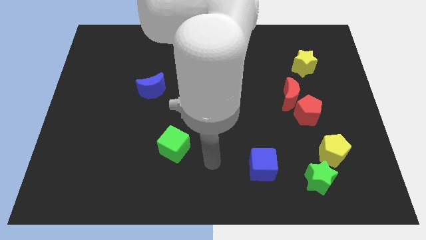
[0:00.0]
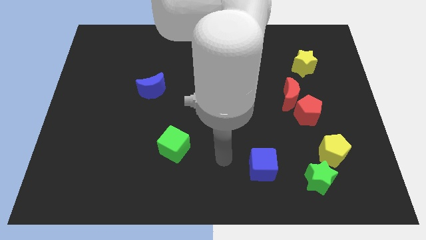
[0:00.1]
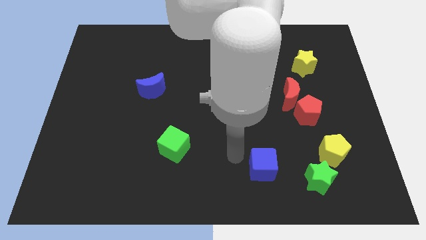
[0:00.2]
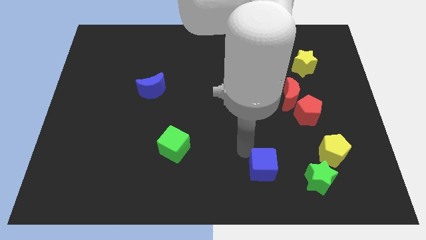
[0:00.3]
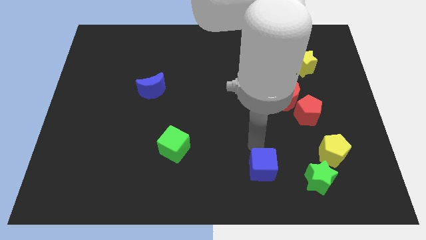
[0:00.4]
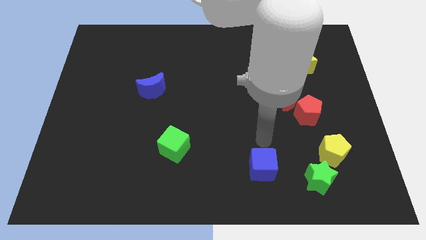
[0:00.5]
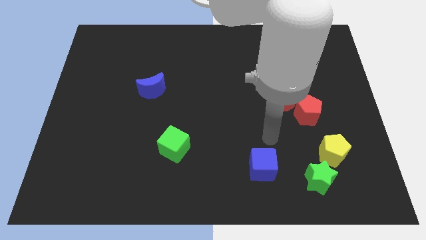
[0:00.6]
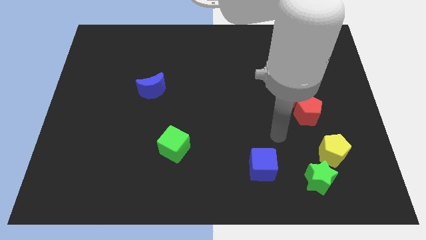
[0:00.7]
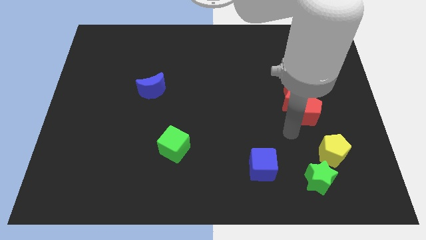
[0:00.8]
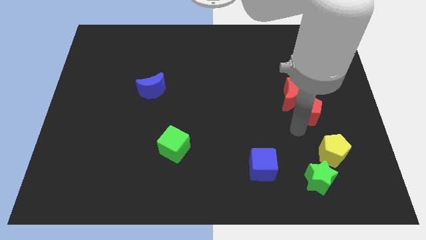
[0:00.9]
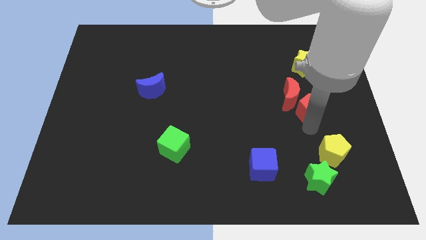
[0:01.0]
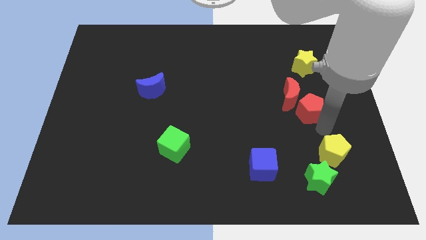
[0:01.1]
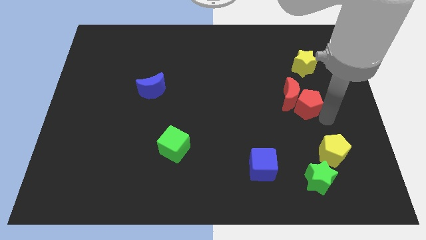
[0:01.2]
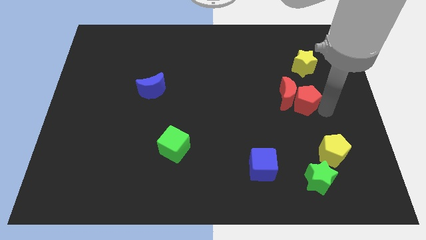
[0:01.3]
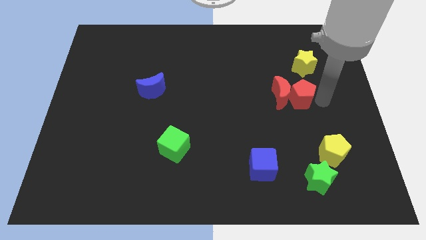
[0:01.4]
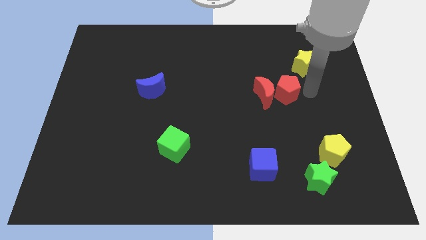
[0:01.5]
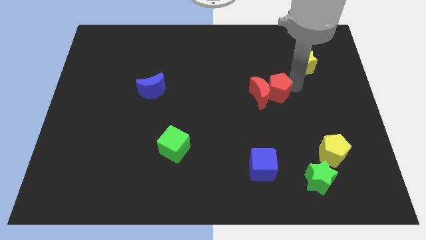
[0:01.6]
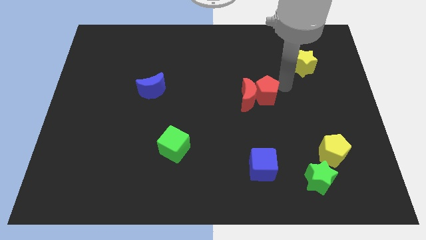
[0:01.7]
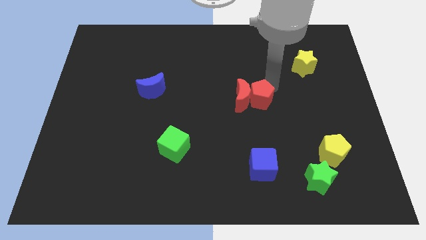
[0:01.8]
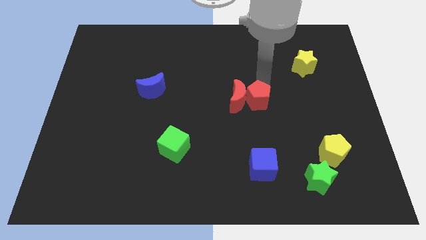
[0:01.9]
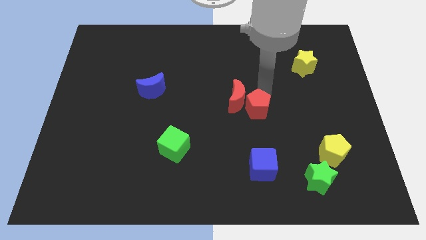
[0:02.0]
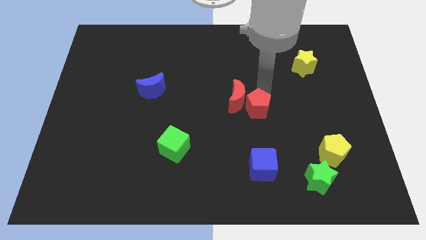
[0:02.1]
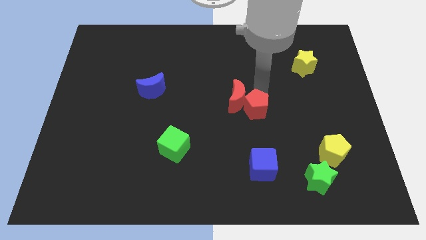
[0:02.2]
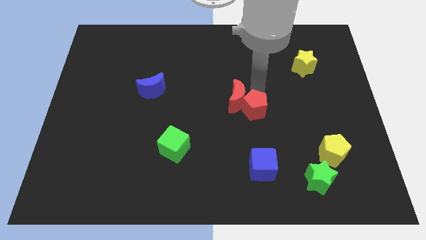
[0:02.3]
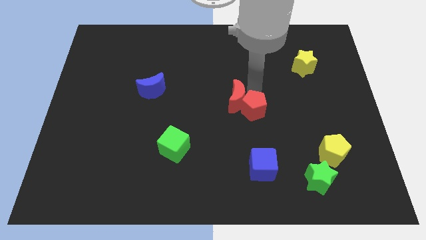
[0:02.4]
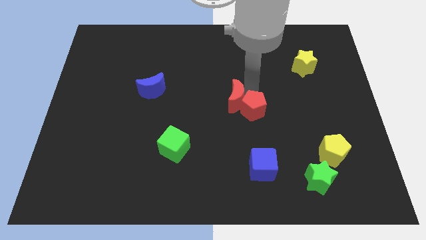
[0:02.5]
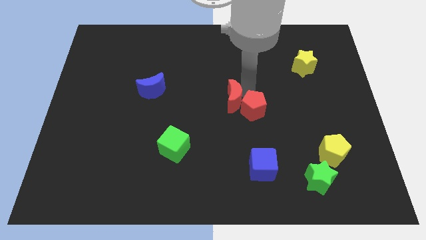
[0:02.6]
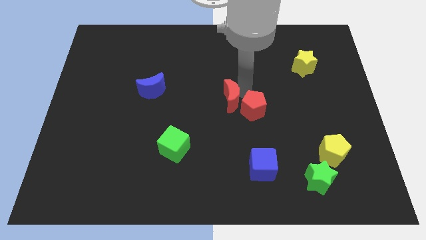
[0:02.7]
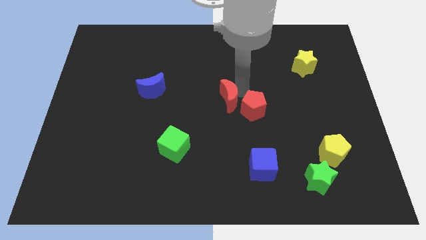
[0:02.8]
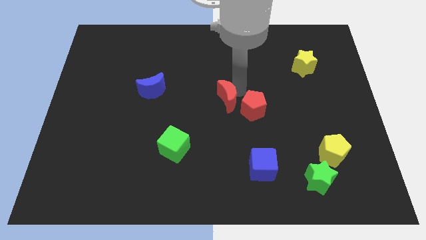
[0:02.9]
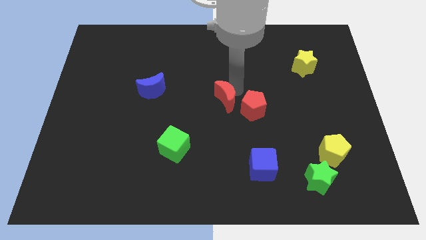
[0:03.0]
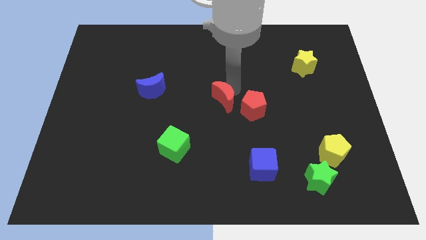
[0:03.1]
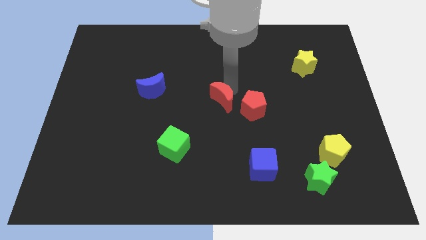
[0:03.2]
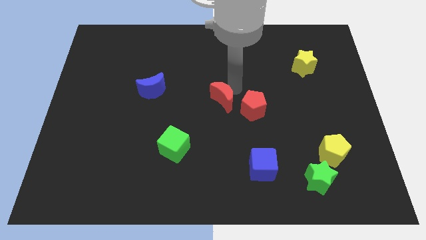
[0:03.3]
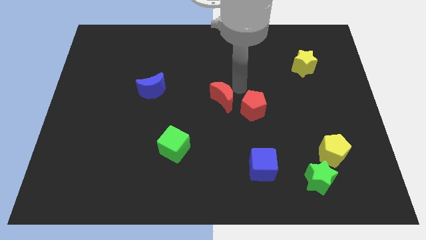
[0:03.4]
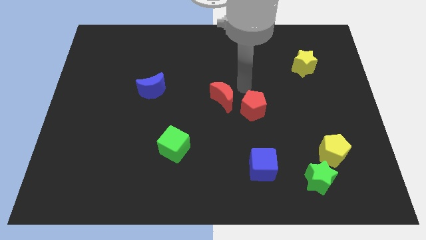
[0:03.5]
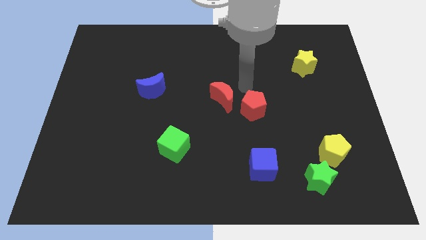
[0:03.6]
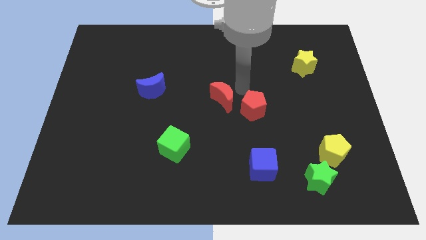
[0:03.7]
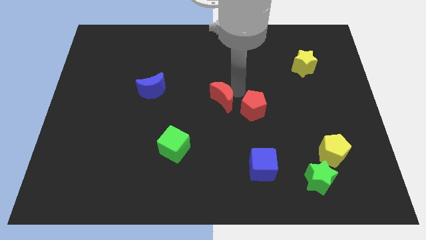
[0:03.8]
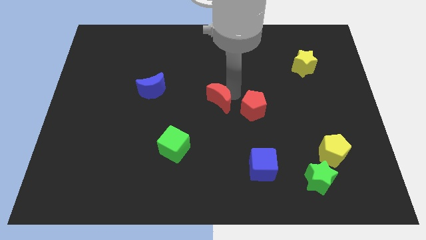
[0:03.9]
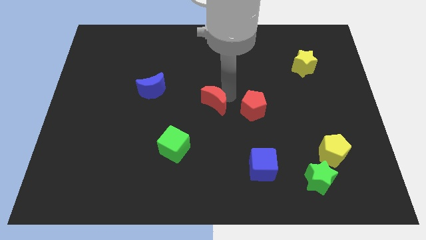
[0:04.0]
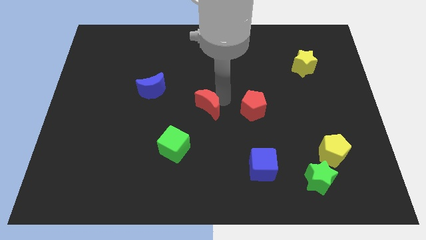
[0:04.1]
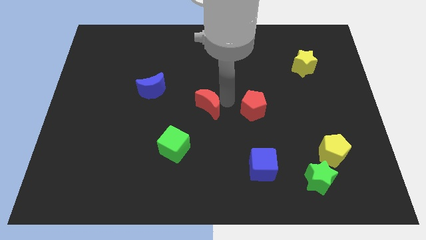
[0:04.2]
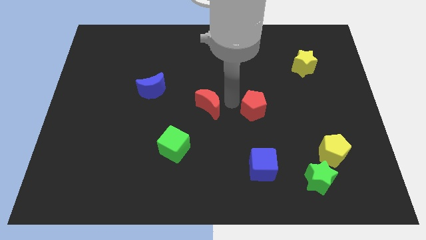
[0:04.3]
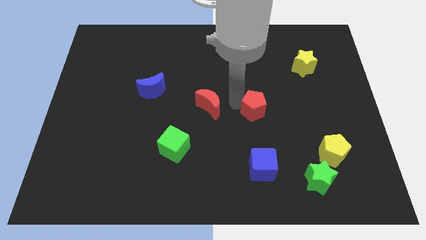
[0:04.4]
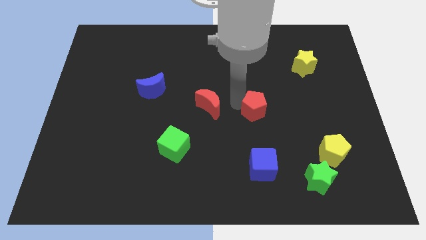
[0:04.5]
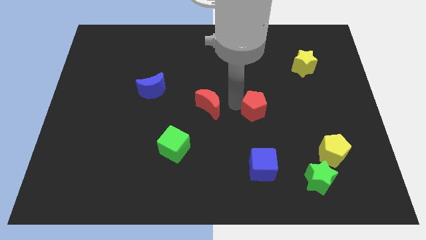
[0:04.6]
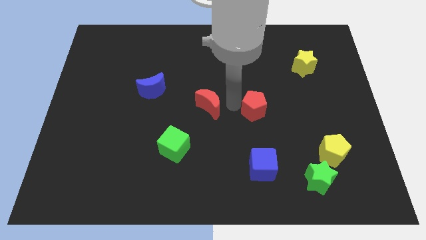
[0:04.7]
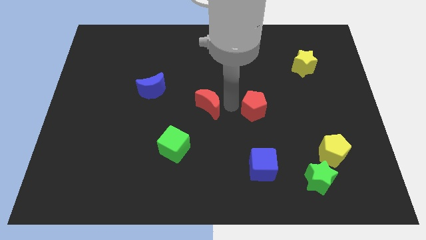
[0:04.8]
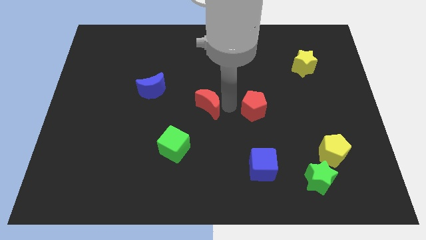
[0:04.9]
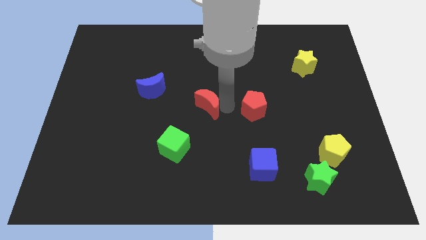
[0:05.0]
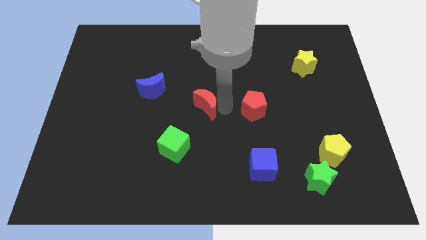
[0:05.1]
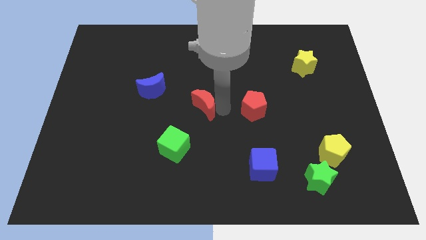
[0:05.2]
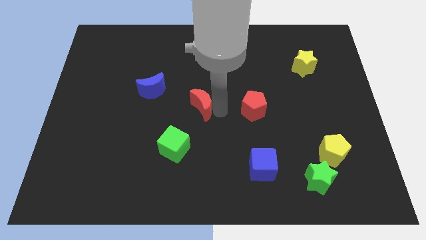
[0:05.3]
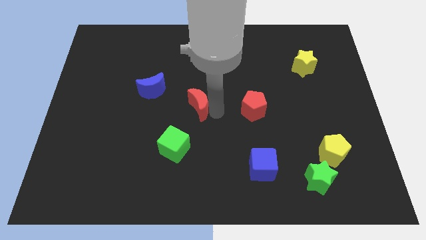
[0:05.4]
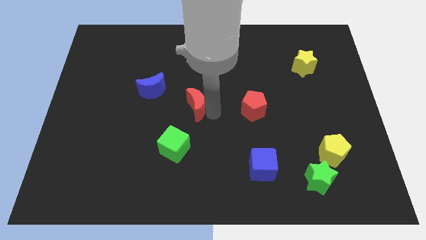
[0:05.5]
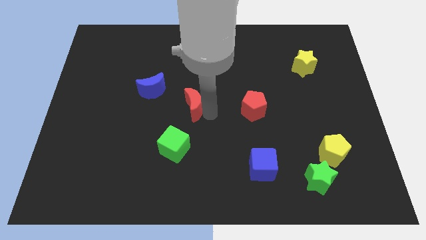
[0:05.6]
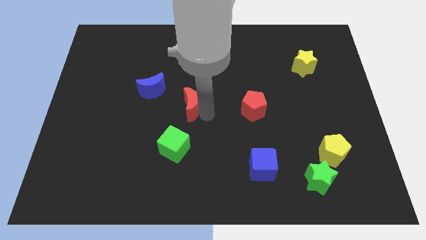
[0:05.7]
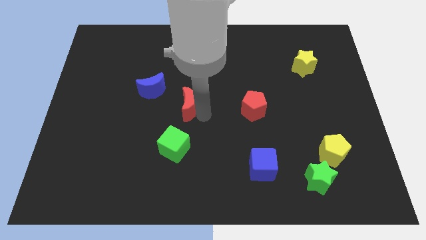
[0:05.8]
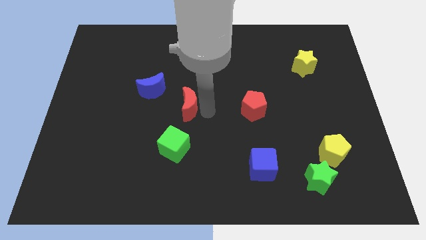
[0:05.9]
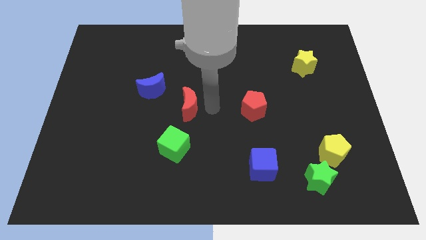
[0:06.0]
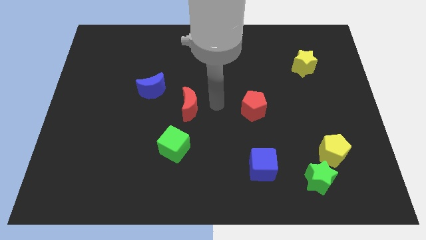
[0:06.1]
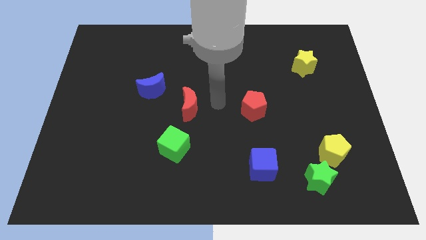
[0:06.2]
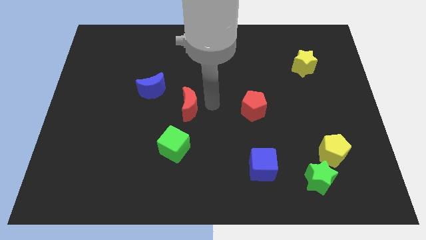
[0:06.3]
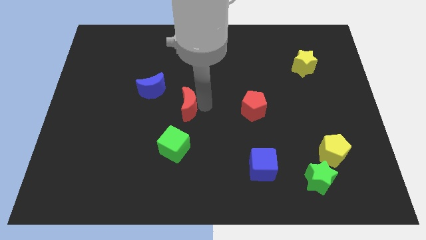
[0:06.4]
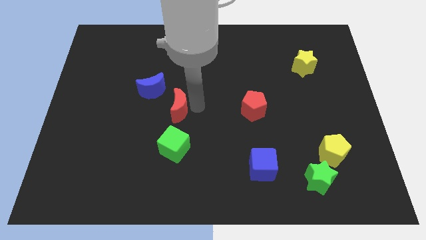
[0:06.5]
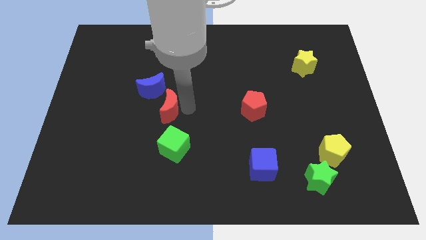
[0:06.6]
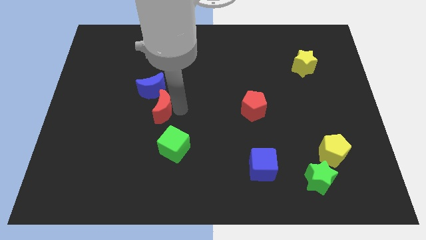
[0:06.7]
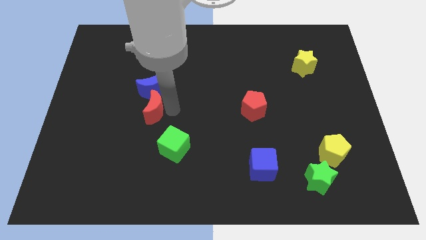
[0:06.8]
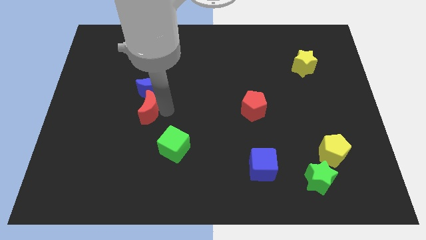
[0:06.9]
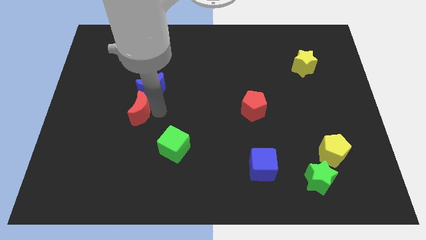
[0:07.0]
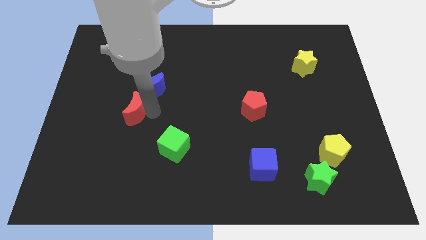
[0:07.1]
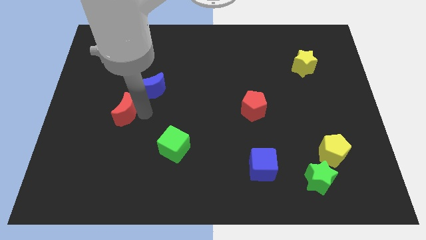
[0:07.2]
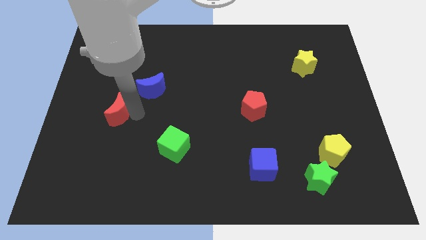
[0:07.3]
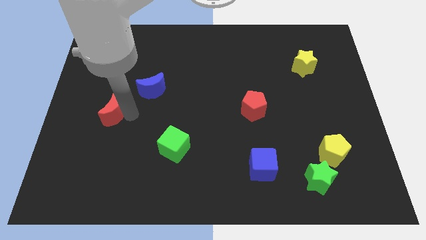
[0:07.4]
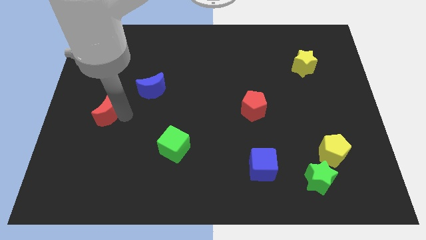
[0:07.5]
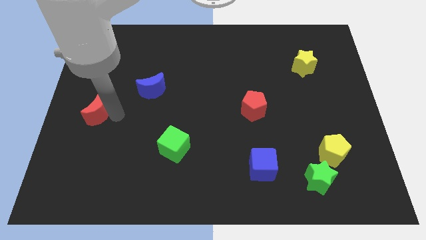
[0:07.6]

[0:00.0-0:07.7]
slide the red moon to the center left
